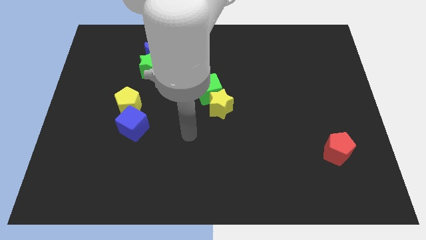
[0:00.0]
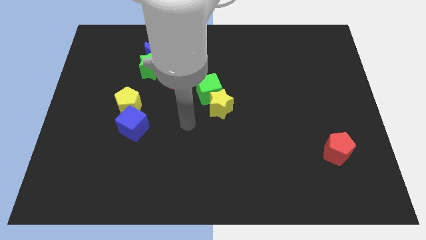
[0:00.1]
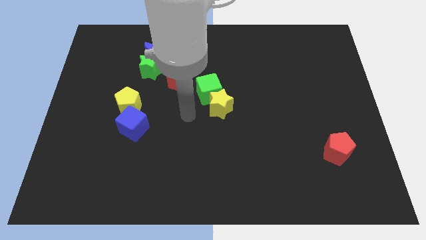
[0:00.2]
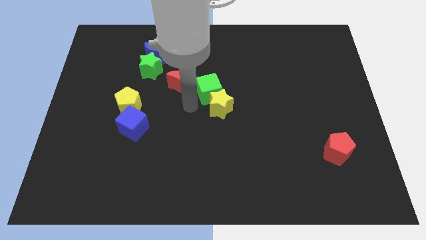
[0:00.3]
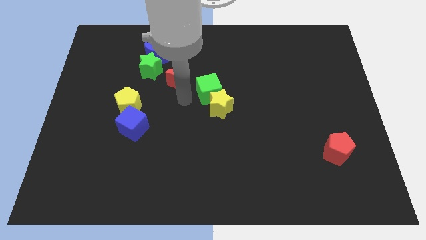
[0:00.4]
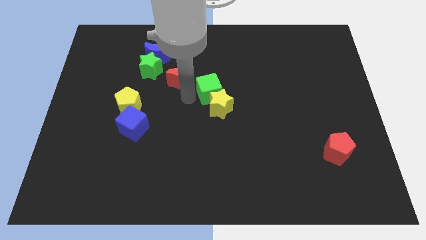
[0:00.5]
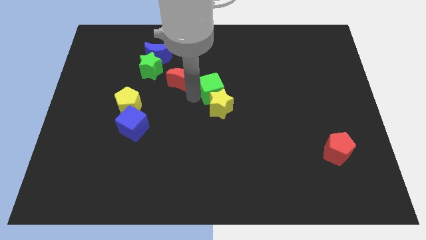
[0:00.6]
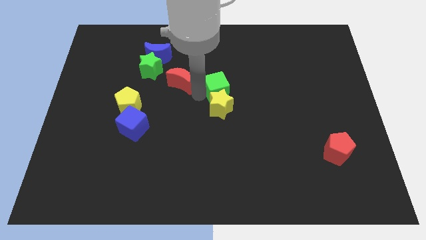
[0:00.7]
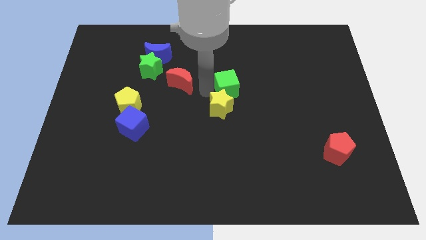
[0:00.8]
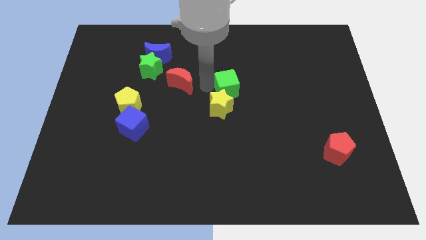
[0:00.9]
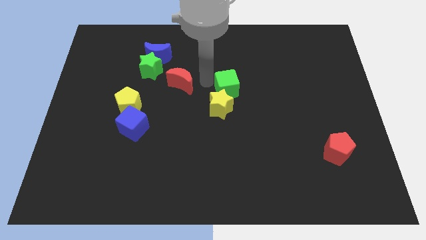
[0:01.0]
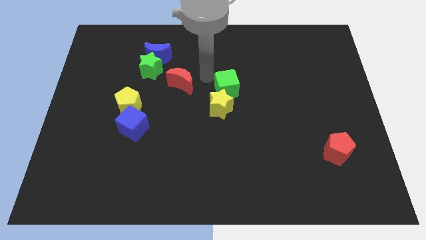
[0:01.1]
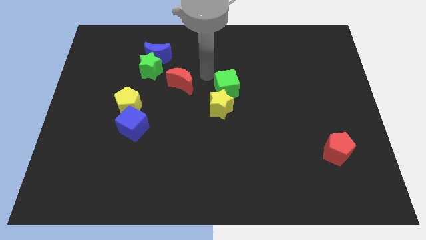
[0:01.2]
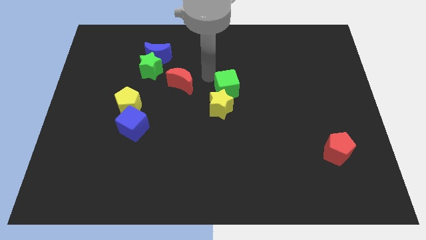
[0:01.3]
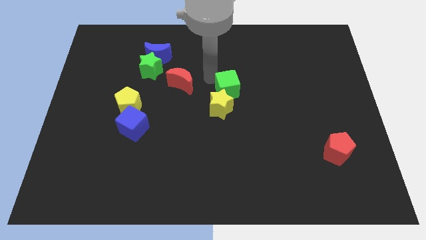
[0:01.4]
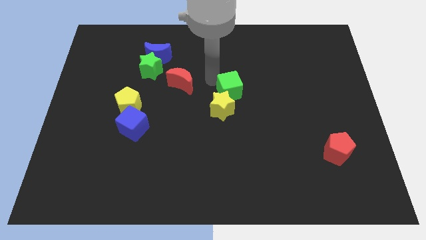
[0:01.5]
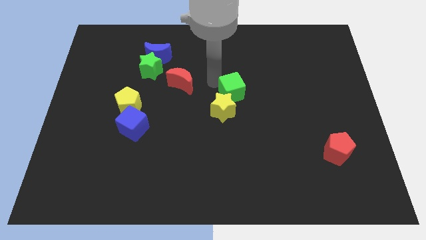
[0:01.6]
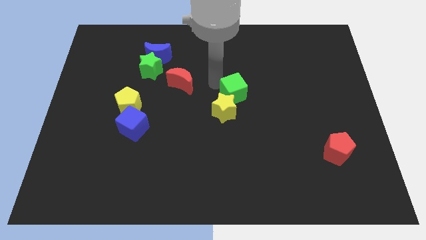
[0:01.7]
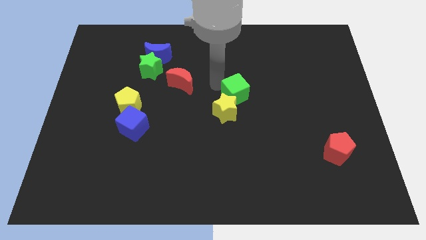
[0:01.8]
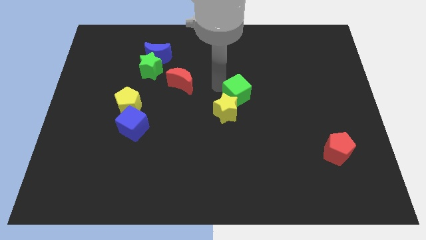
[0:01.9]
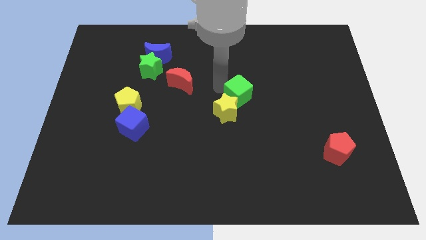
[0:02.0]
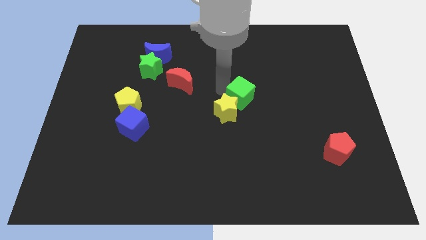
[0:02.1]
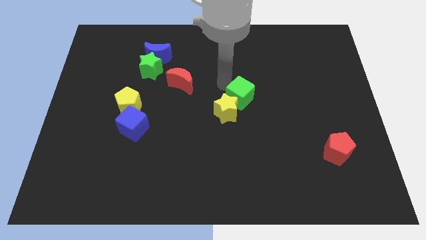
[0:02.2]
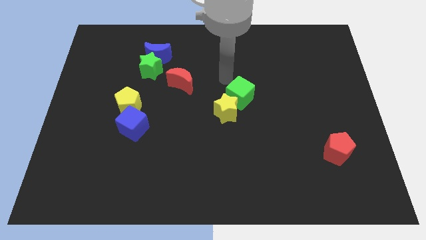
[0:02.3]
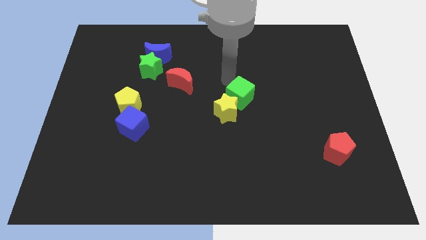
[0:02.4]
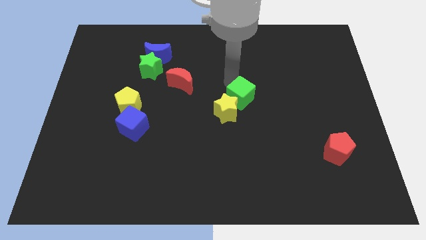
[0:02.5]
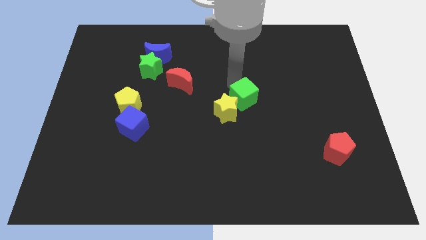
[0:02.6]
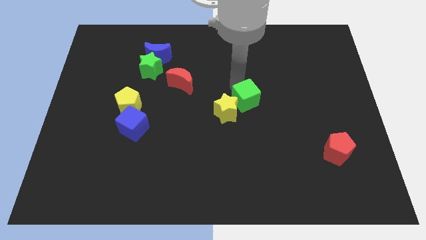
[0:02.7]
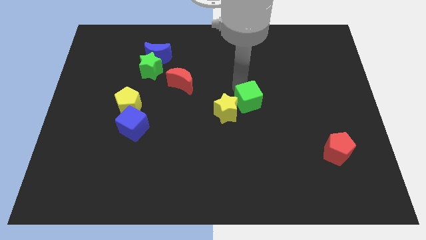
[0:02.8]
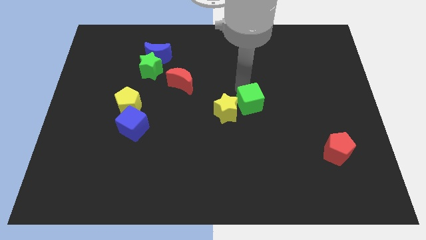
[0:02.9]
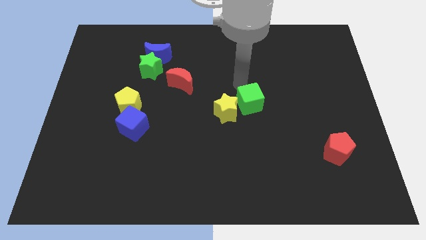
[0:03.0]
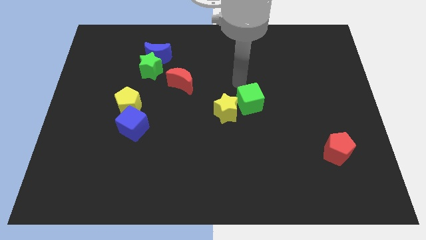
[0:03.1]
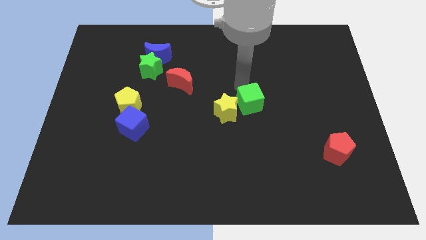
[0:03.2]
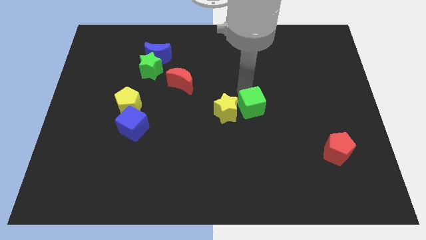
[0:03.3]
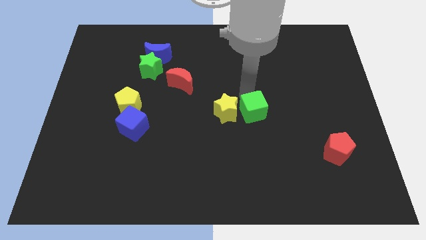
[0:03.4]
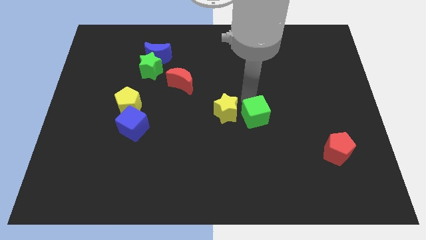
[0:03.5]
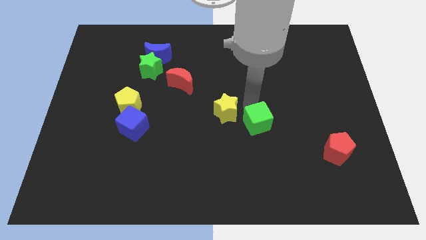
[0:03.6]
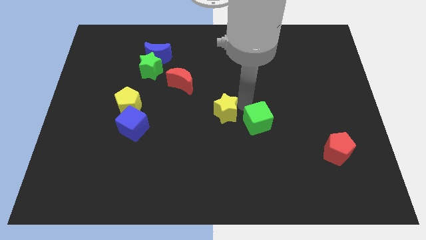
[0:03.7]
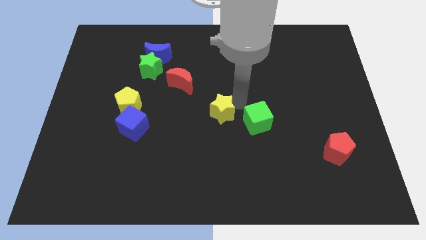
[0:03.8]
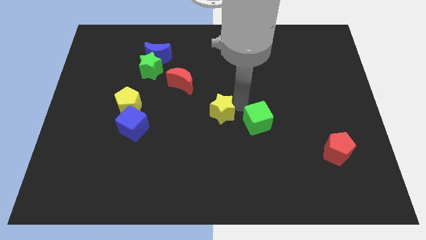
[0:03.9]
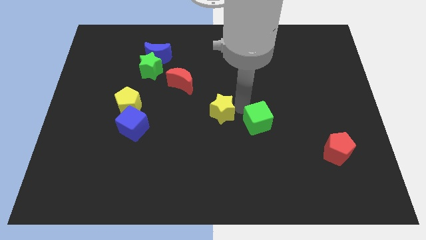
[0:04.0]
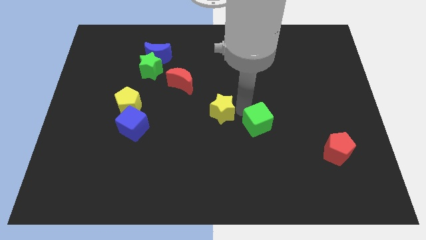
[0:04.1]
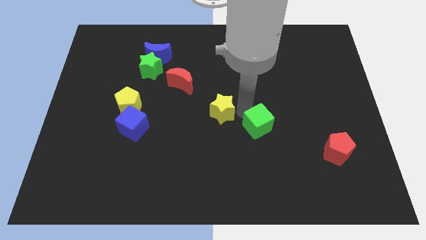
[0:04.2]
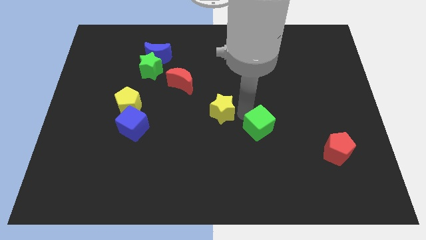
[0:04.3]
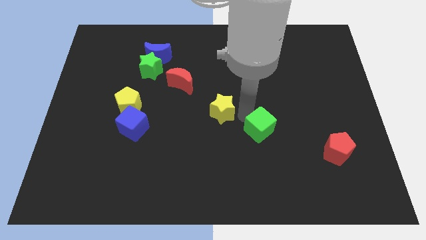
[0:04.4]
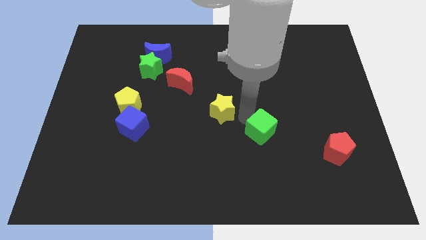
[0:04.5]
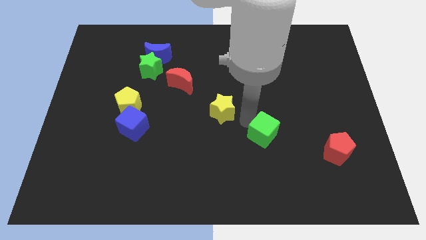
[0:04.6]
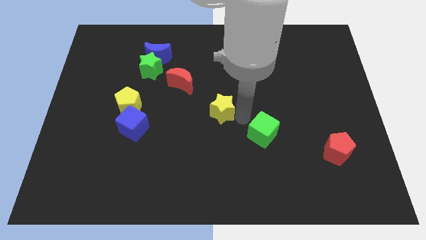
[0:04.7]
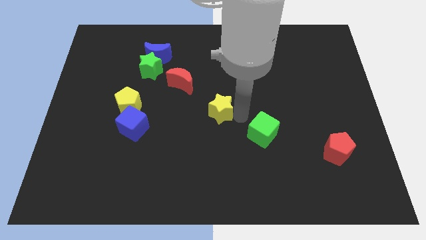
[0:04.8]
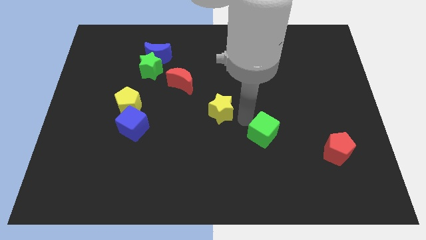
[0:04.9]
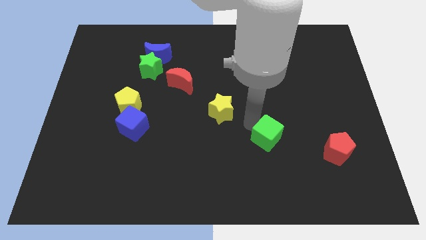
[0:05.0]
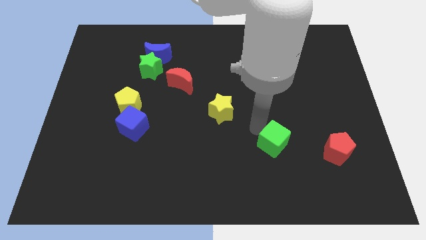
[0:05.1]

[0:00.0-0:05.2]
push the green cube to the left side of the red pentagon

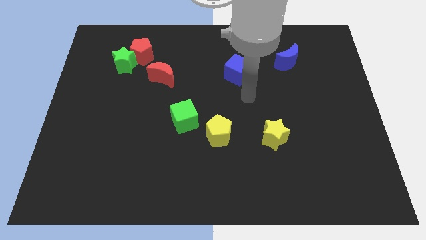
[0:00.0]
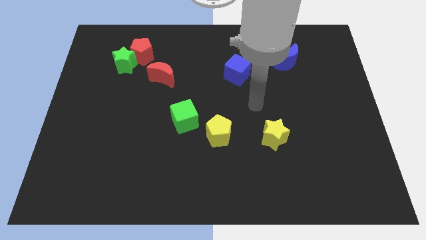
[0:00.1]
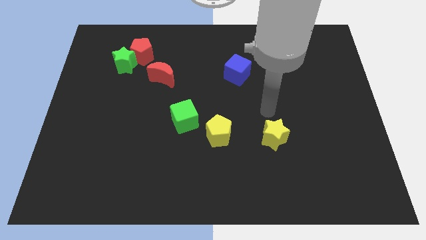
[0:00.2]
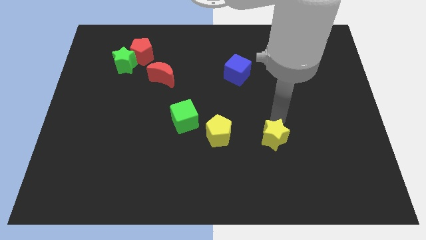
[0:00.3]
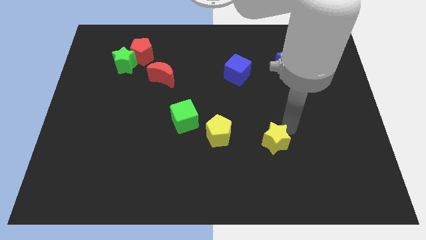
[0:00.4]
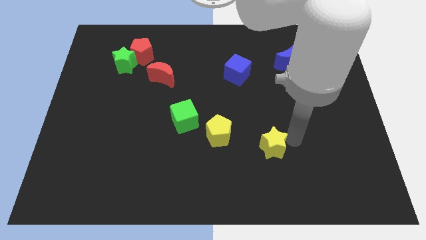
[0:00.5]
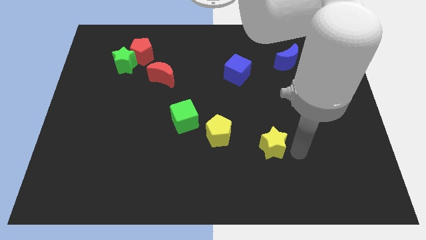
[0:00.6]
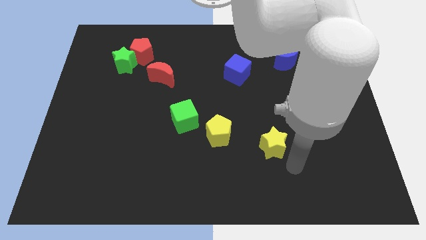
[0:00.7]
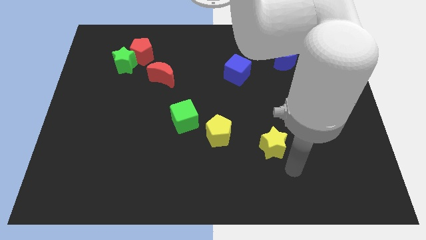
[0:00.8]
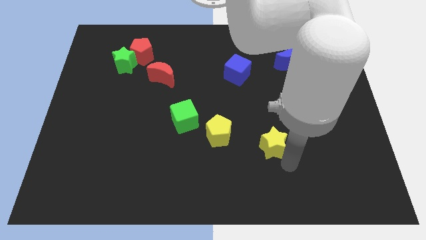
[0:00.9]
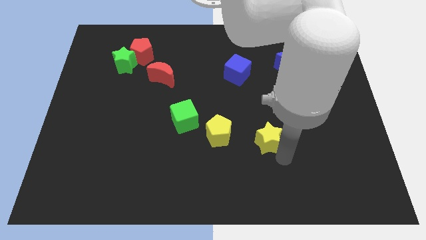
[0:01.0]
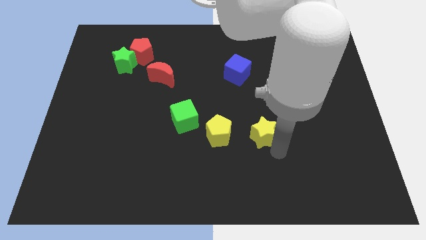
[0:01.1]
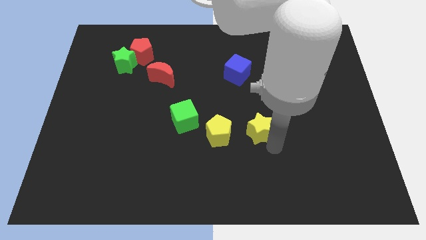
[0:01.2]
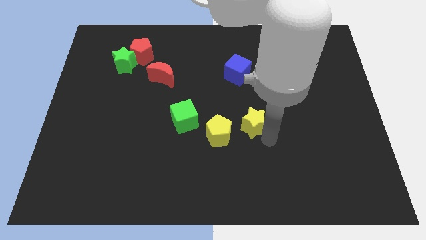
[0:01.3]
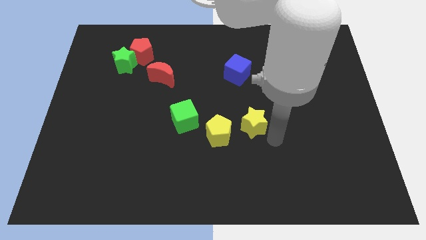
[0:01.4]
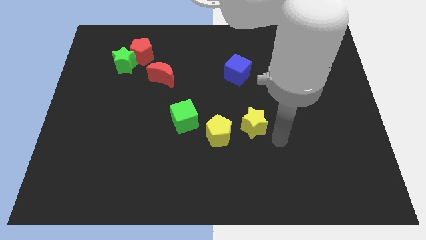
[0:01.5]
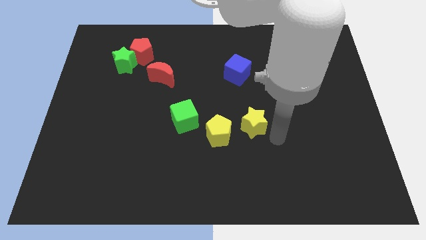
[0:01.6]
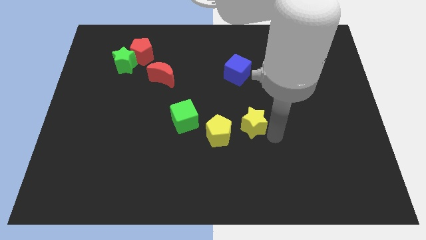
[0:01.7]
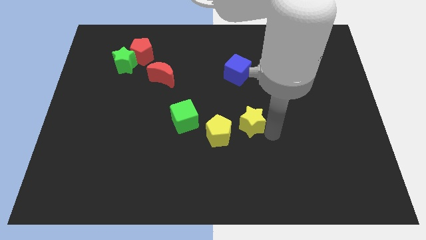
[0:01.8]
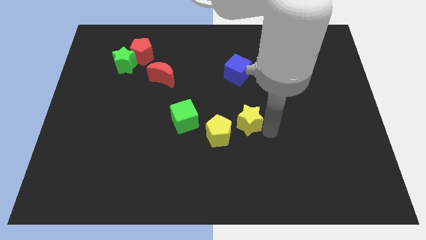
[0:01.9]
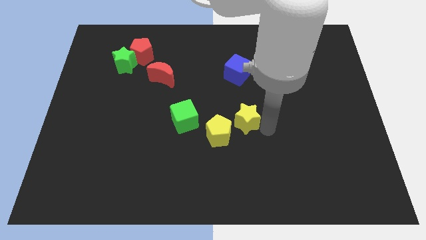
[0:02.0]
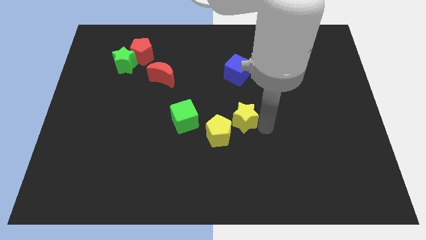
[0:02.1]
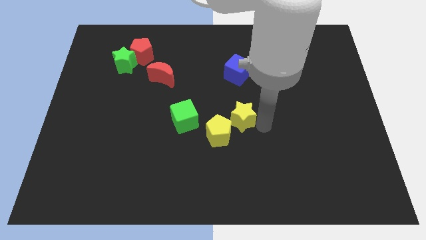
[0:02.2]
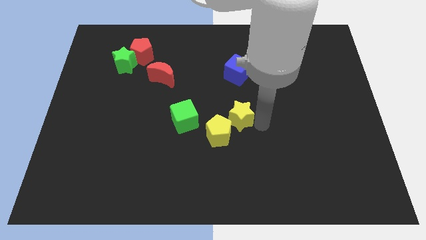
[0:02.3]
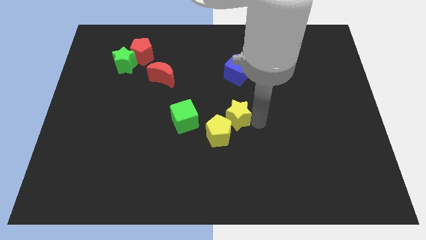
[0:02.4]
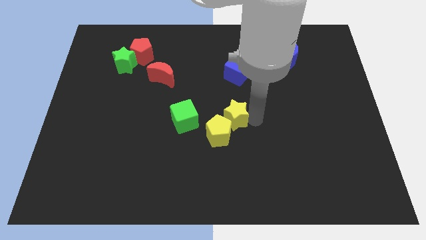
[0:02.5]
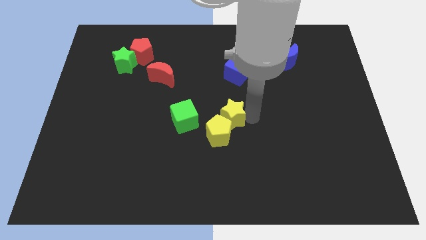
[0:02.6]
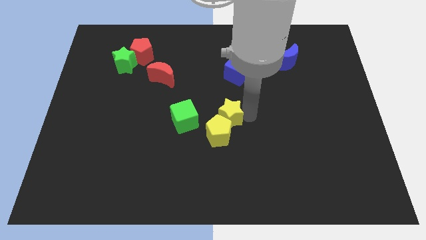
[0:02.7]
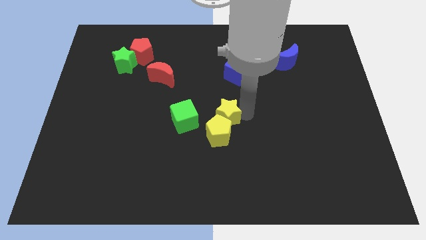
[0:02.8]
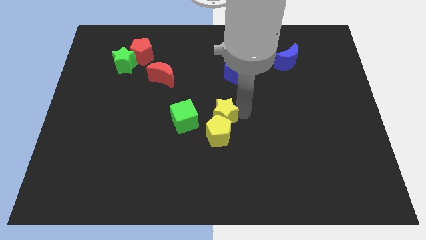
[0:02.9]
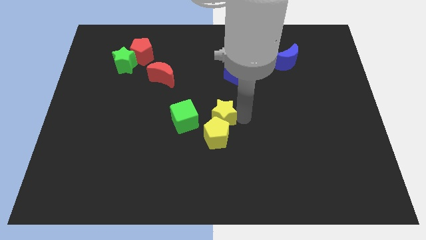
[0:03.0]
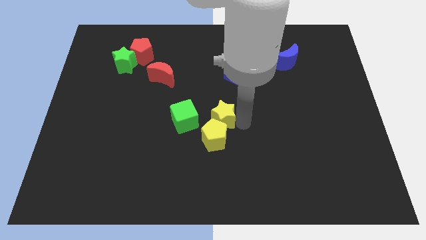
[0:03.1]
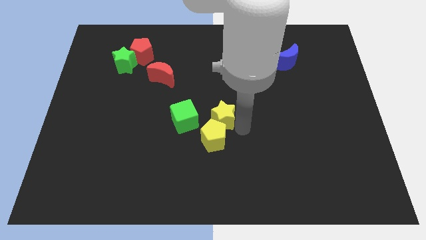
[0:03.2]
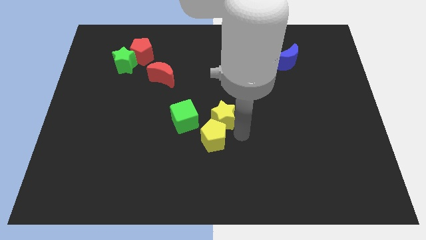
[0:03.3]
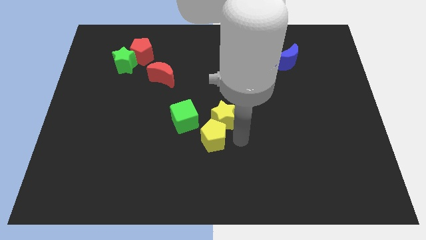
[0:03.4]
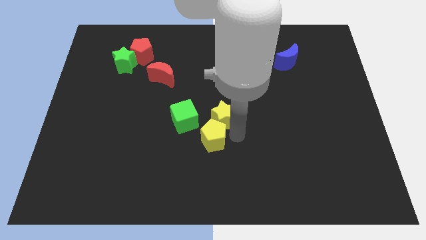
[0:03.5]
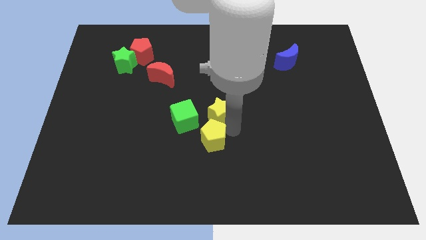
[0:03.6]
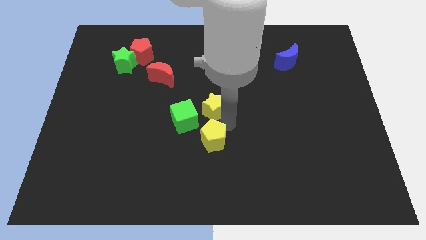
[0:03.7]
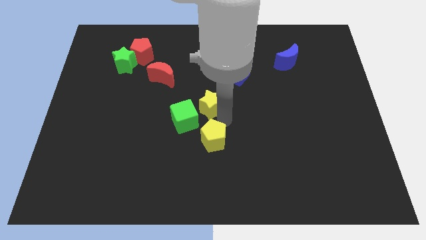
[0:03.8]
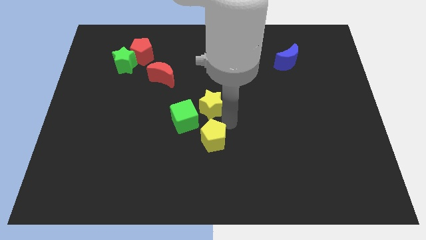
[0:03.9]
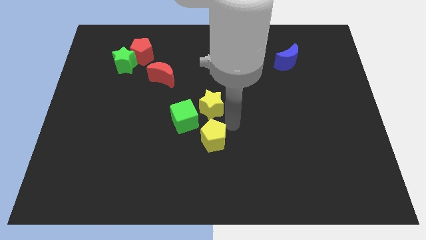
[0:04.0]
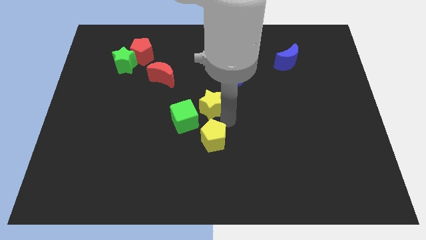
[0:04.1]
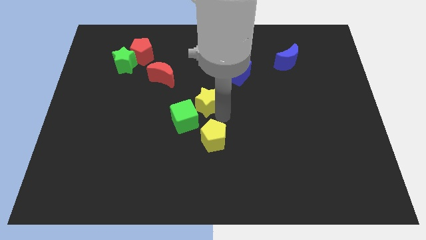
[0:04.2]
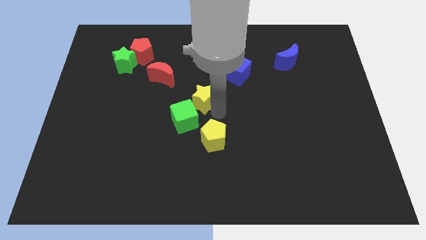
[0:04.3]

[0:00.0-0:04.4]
put the yellow star above the green cube
